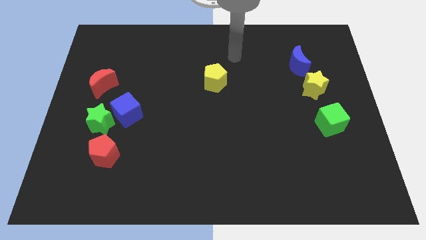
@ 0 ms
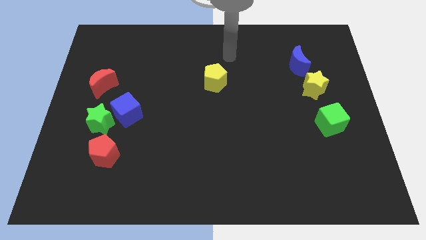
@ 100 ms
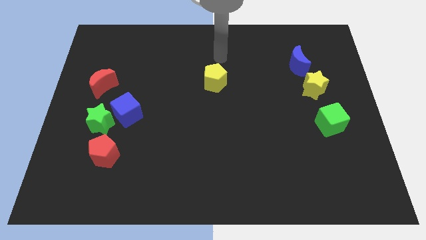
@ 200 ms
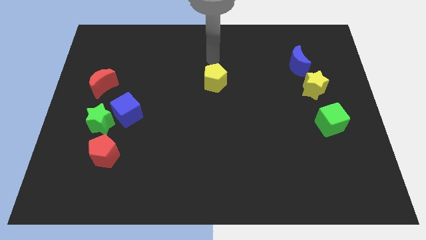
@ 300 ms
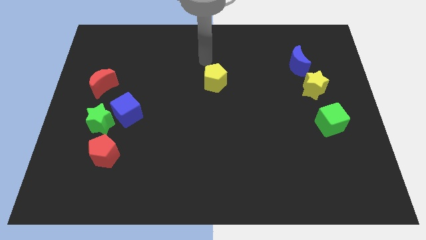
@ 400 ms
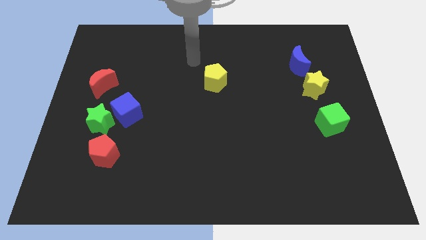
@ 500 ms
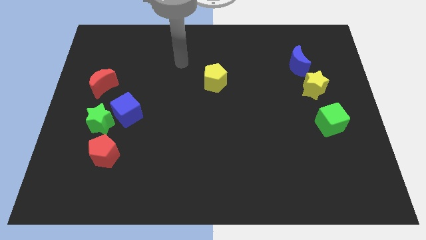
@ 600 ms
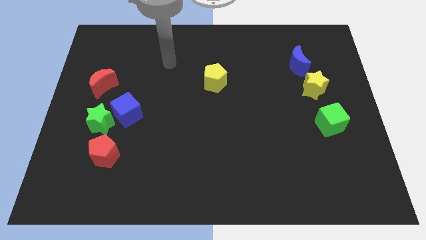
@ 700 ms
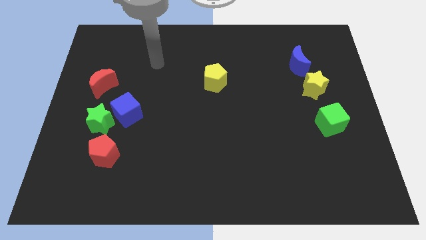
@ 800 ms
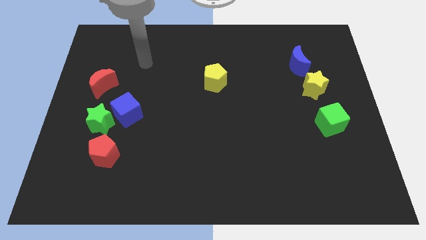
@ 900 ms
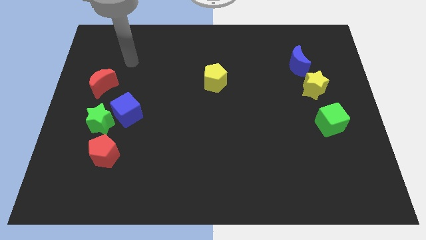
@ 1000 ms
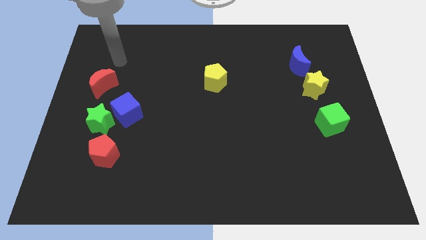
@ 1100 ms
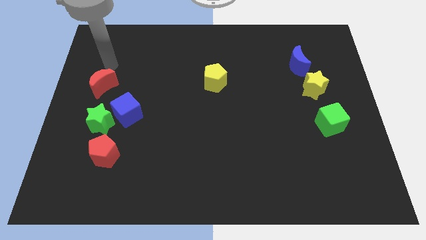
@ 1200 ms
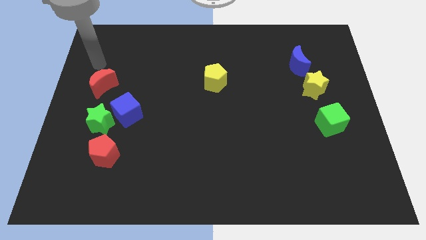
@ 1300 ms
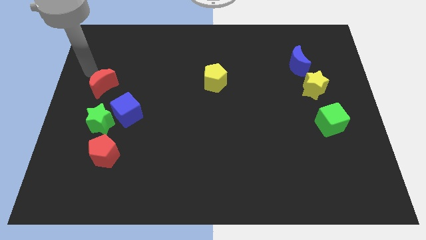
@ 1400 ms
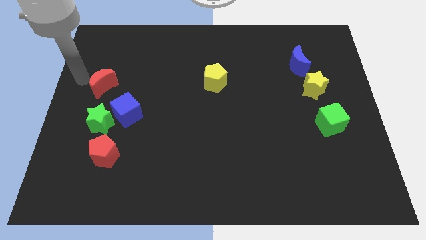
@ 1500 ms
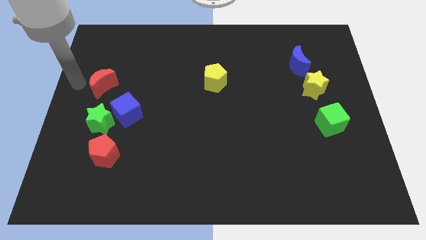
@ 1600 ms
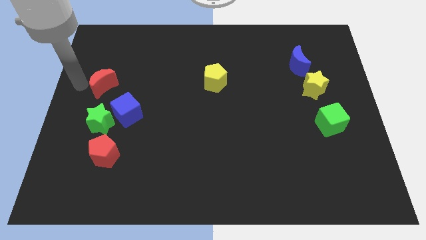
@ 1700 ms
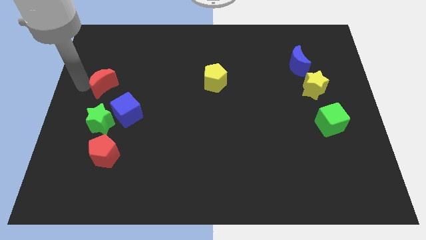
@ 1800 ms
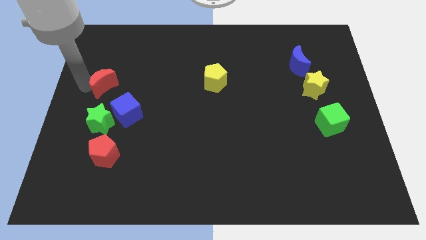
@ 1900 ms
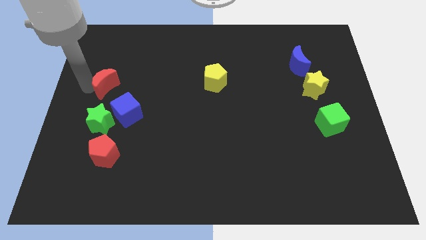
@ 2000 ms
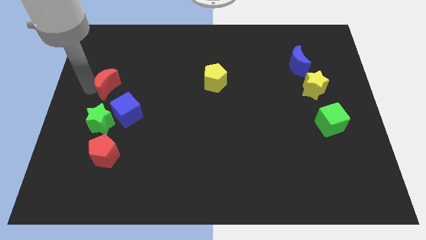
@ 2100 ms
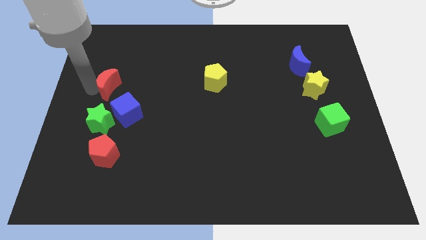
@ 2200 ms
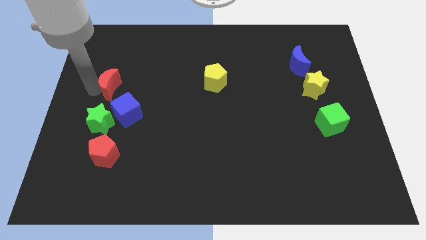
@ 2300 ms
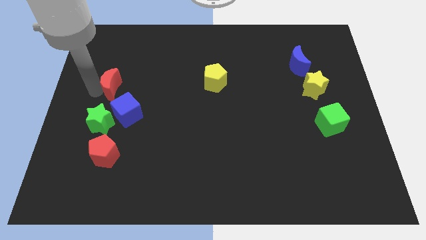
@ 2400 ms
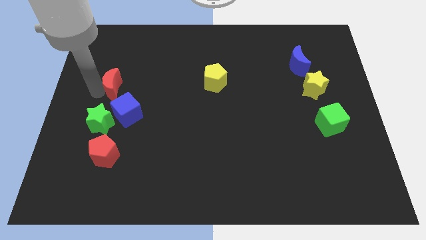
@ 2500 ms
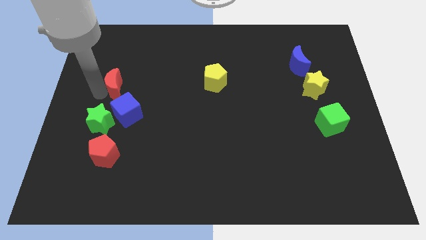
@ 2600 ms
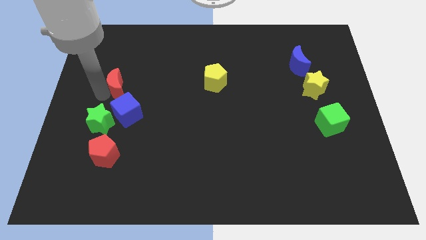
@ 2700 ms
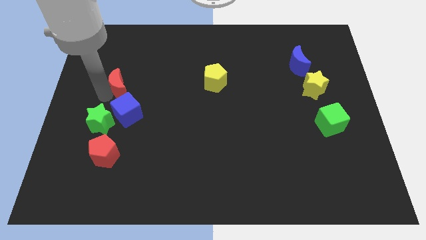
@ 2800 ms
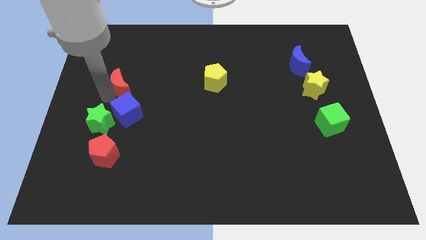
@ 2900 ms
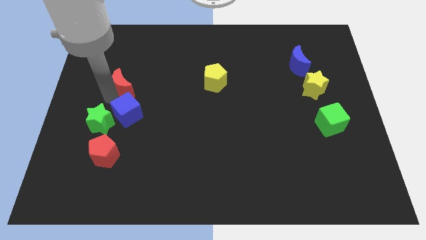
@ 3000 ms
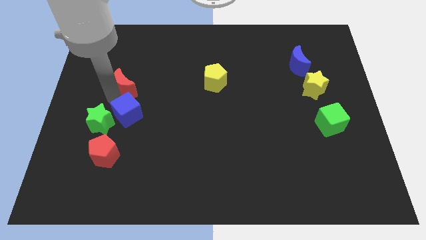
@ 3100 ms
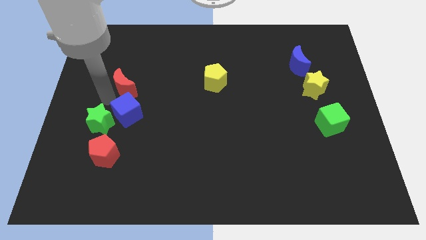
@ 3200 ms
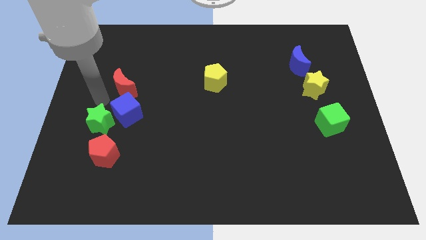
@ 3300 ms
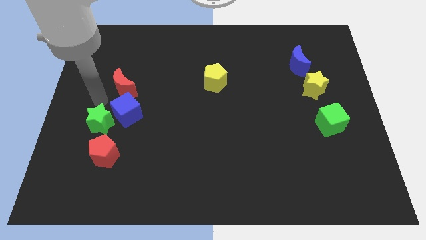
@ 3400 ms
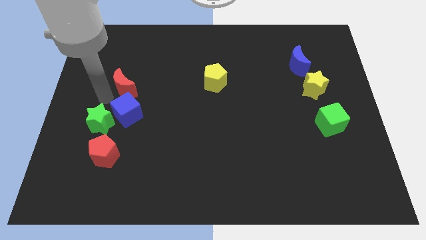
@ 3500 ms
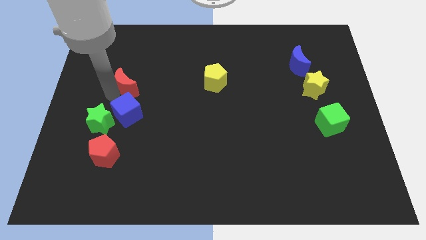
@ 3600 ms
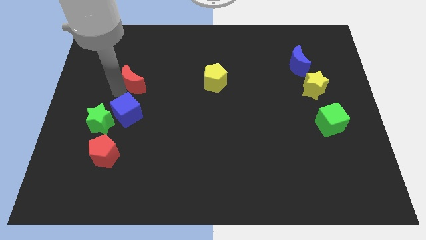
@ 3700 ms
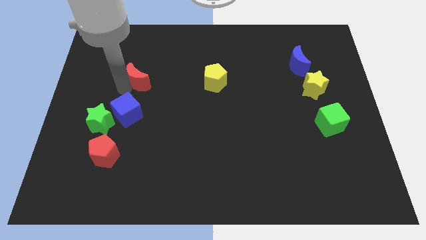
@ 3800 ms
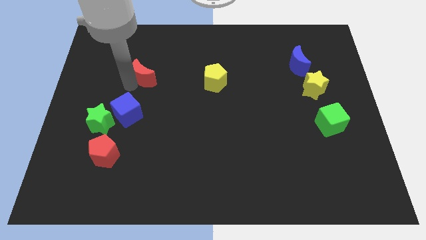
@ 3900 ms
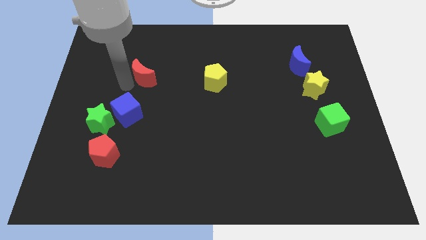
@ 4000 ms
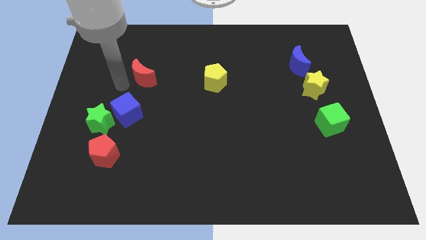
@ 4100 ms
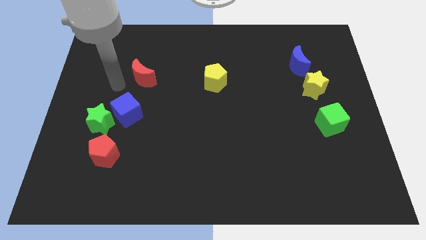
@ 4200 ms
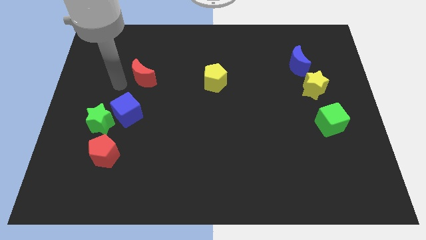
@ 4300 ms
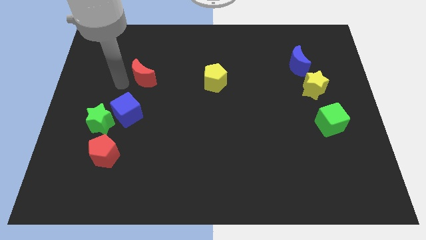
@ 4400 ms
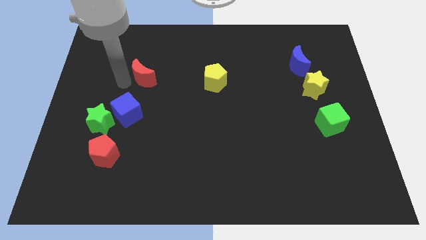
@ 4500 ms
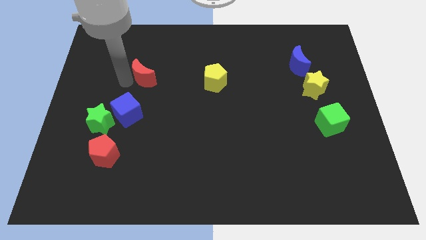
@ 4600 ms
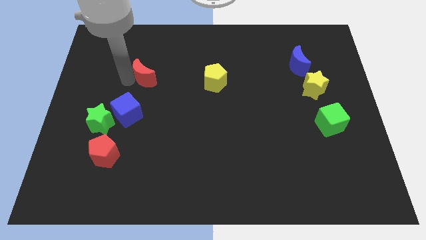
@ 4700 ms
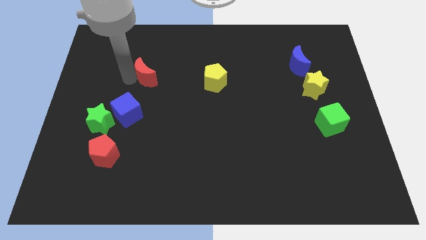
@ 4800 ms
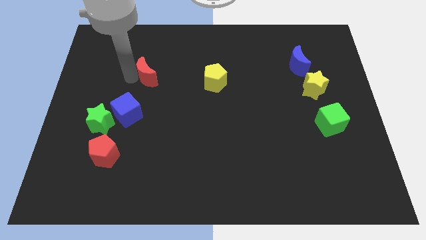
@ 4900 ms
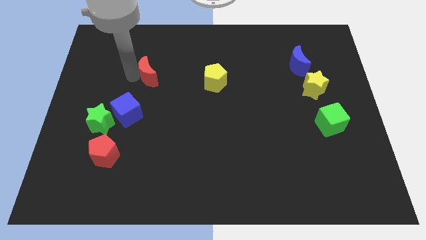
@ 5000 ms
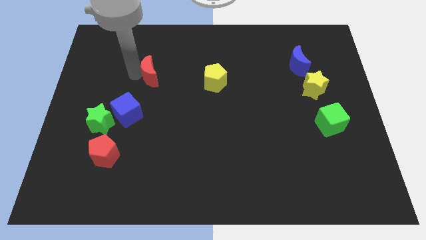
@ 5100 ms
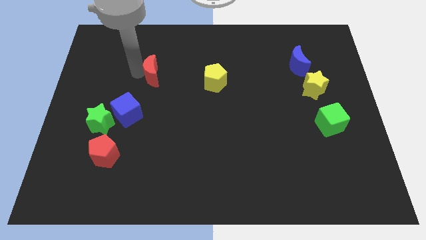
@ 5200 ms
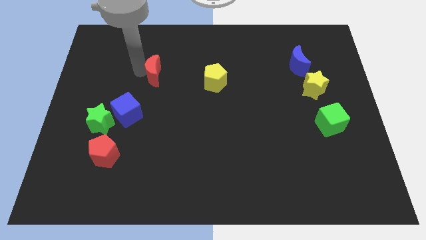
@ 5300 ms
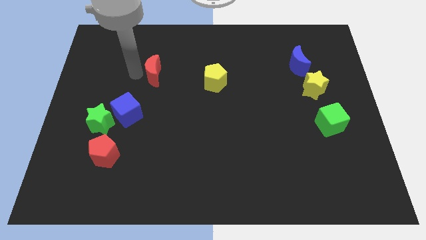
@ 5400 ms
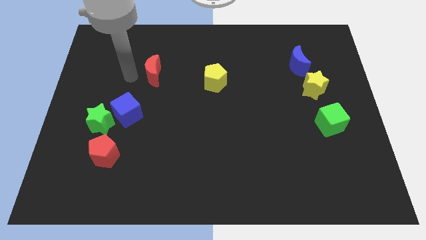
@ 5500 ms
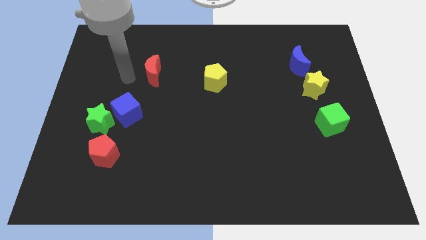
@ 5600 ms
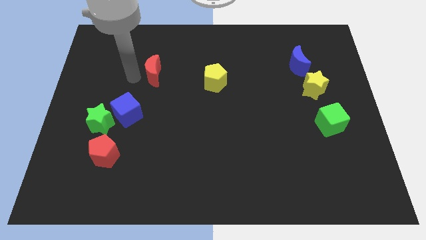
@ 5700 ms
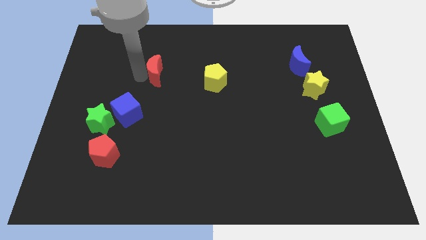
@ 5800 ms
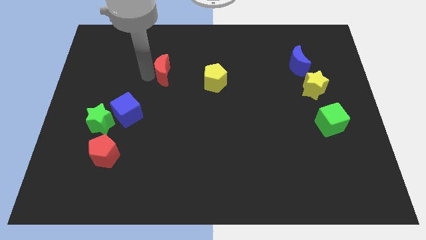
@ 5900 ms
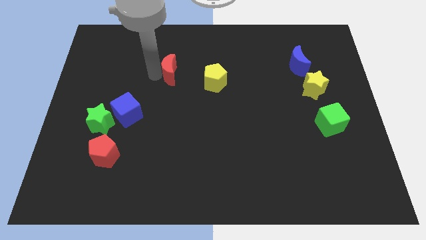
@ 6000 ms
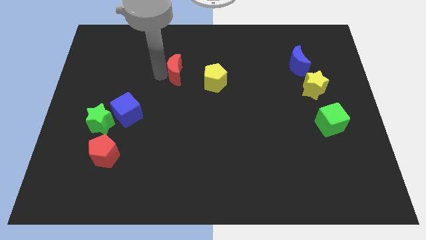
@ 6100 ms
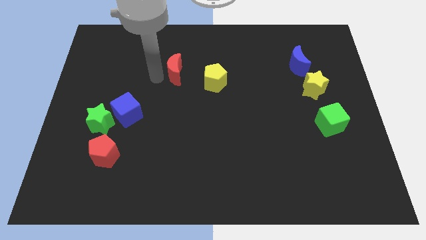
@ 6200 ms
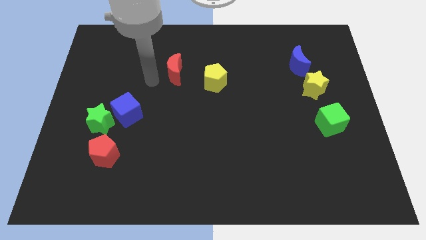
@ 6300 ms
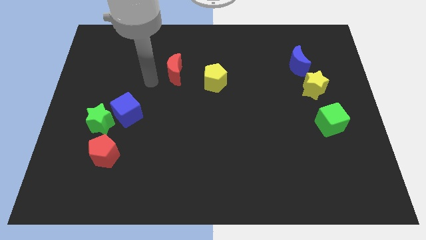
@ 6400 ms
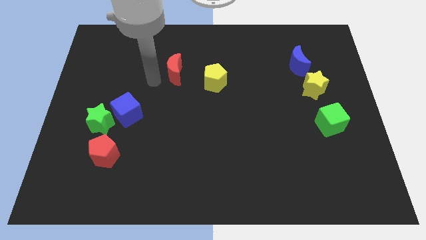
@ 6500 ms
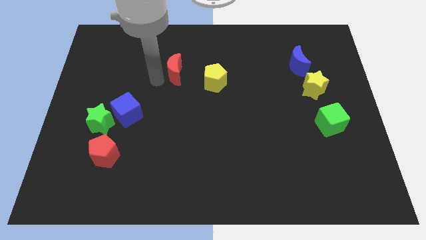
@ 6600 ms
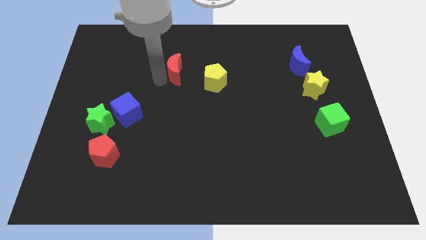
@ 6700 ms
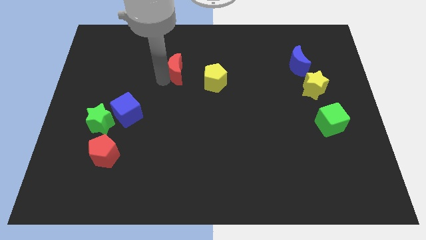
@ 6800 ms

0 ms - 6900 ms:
slide the red moon to the top left side of the yellow pentagon

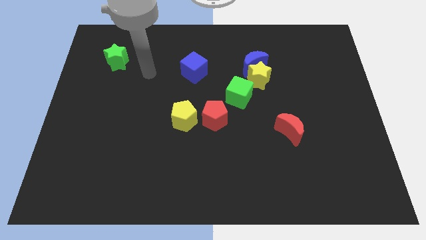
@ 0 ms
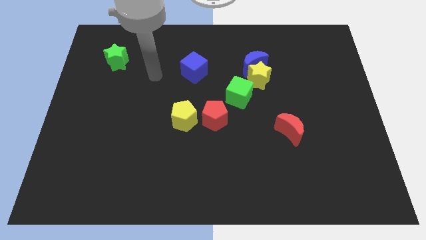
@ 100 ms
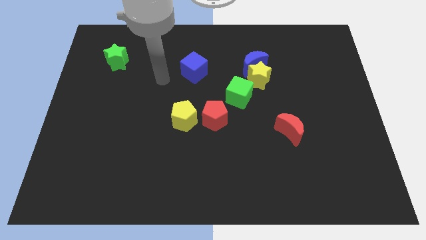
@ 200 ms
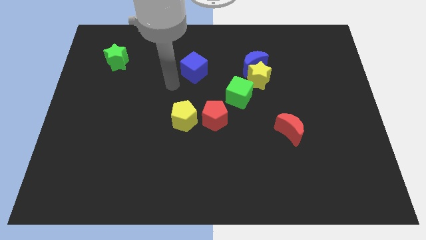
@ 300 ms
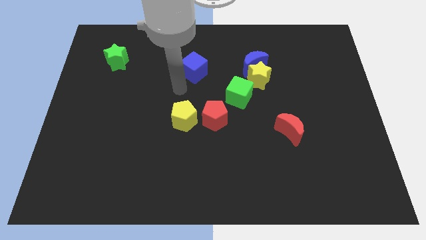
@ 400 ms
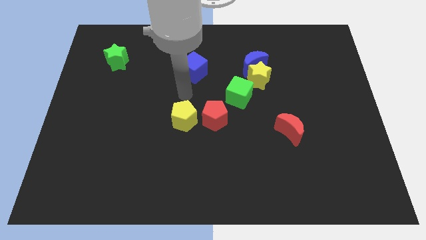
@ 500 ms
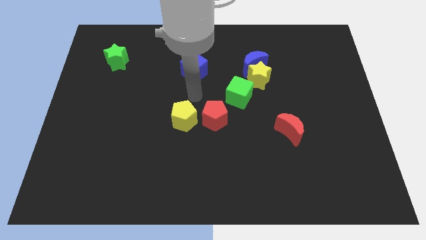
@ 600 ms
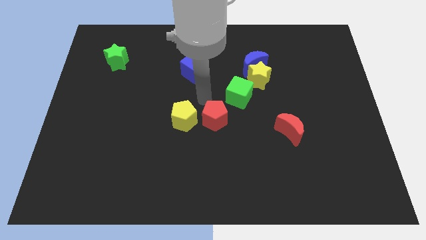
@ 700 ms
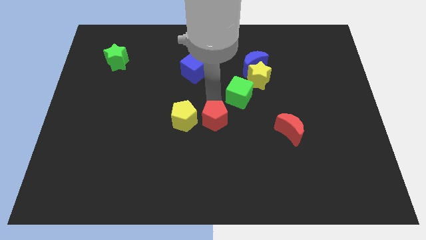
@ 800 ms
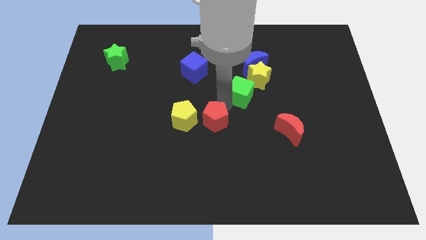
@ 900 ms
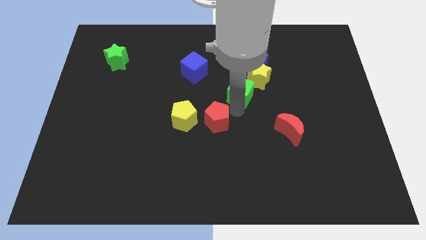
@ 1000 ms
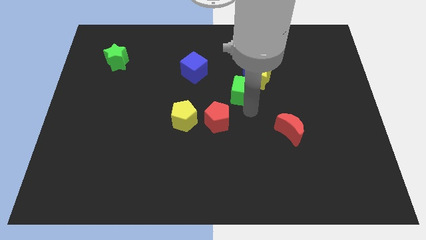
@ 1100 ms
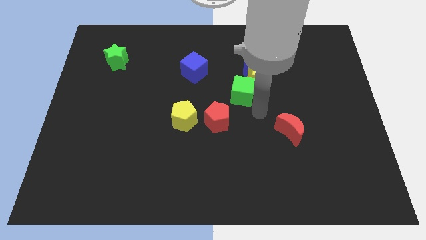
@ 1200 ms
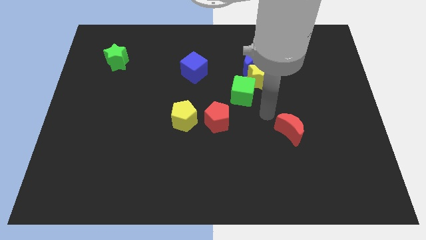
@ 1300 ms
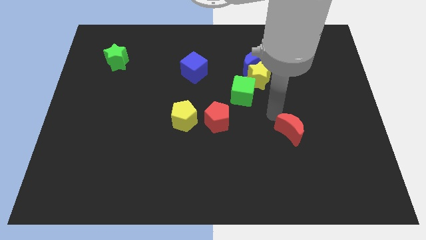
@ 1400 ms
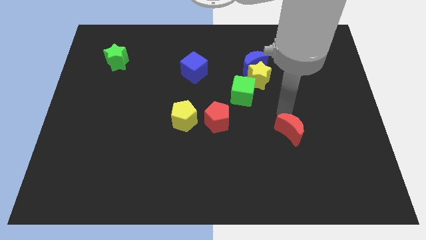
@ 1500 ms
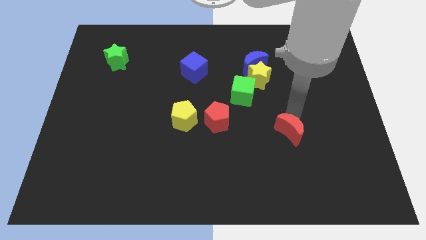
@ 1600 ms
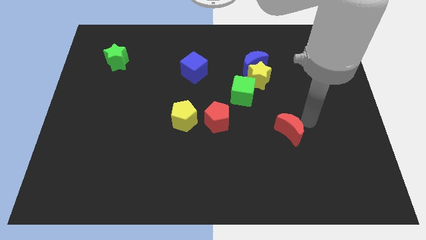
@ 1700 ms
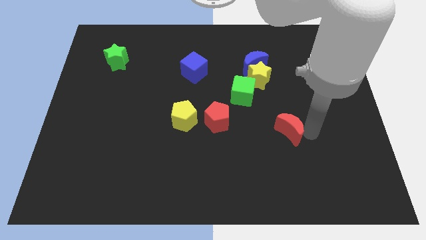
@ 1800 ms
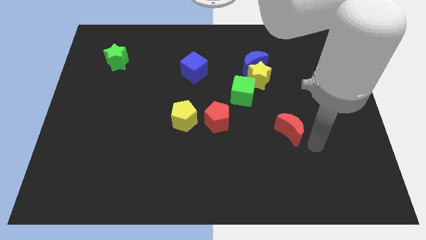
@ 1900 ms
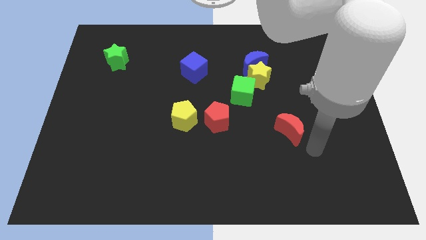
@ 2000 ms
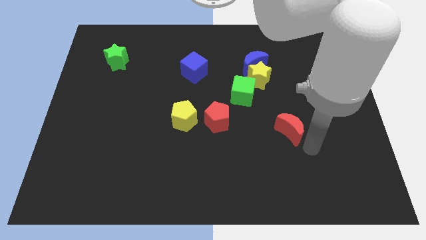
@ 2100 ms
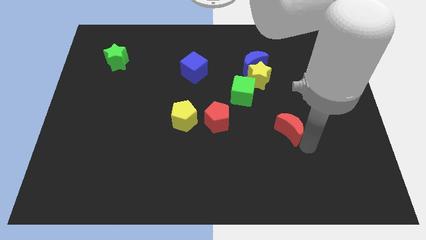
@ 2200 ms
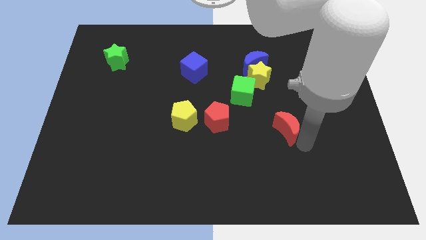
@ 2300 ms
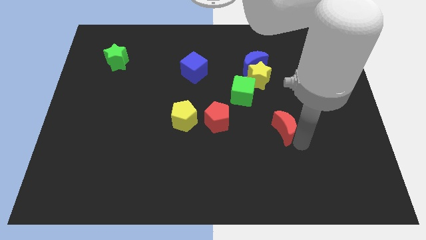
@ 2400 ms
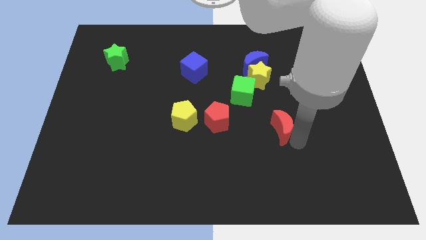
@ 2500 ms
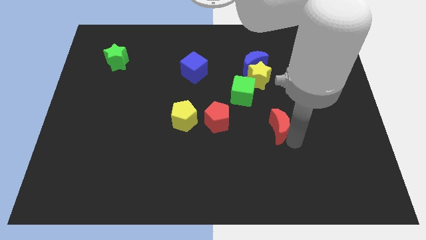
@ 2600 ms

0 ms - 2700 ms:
slide the red moon to the bottom right side of the green cube
